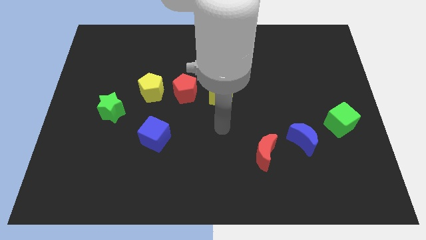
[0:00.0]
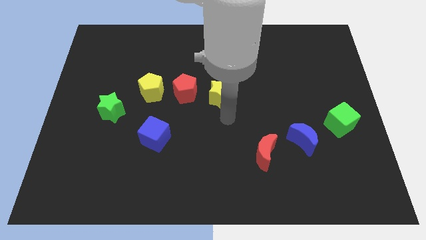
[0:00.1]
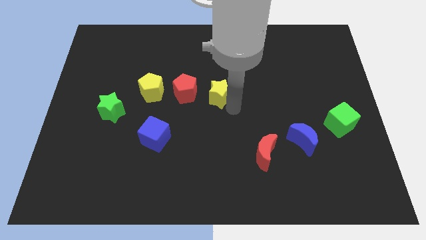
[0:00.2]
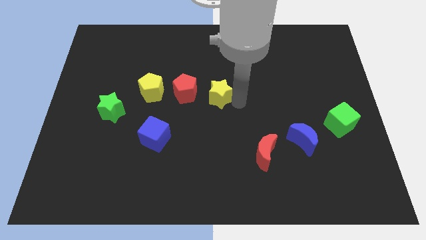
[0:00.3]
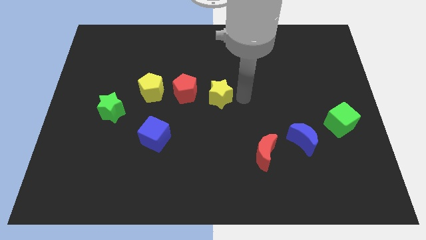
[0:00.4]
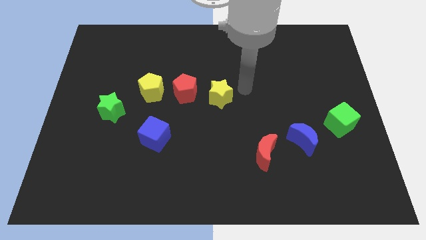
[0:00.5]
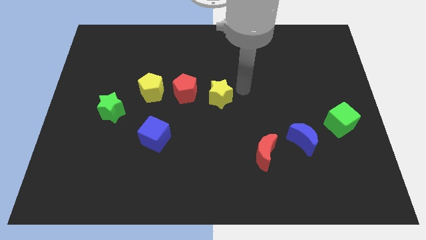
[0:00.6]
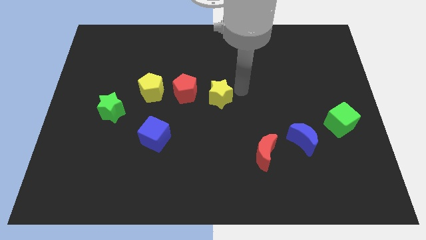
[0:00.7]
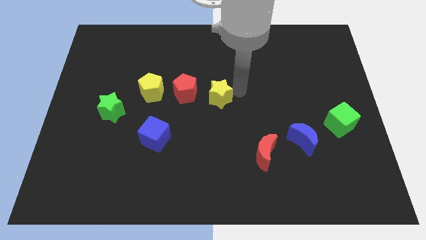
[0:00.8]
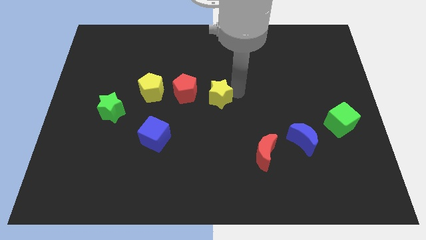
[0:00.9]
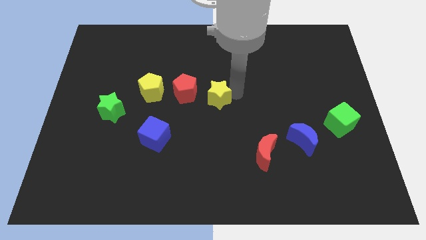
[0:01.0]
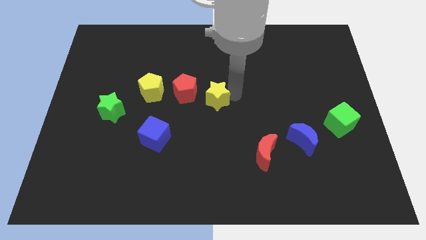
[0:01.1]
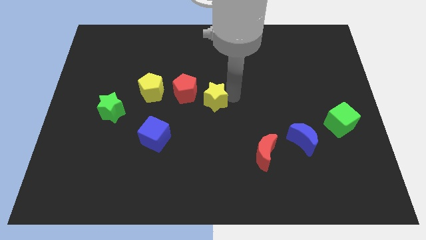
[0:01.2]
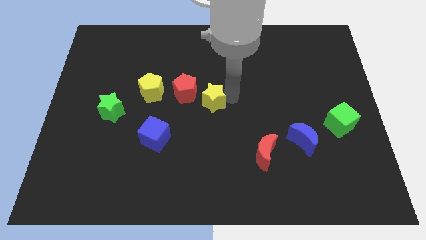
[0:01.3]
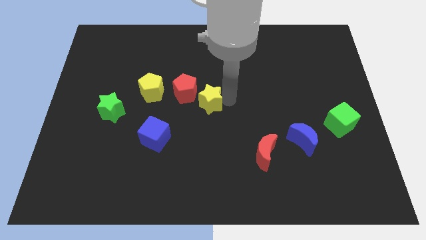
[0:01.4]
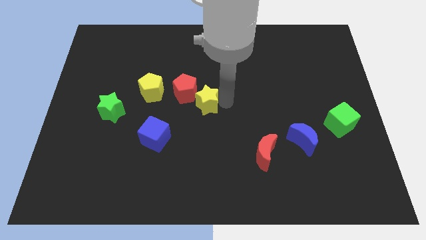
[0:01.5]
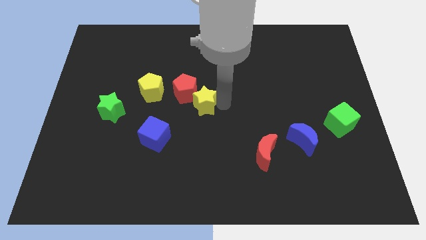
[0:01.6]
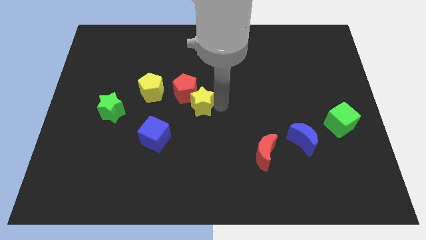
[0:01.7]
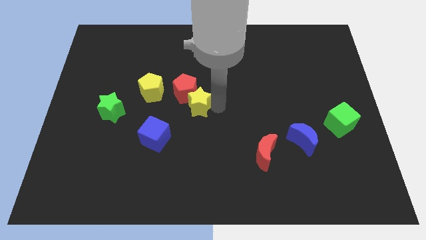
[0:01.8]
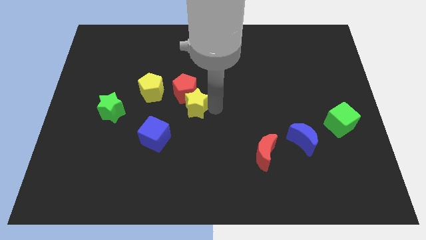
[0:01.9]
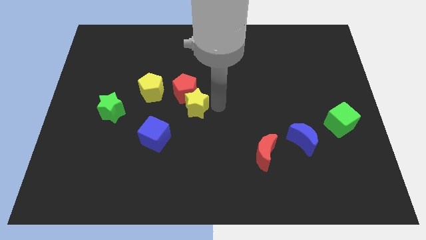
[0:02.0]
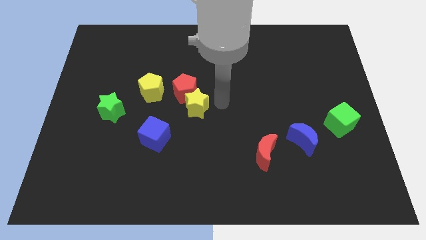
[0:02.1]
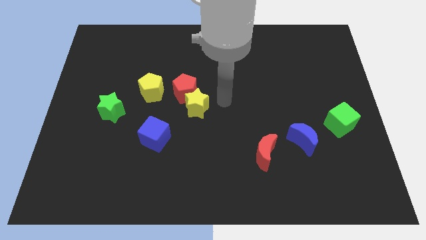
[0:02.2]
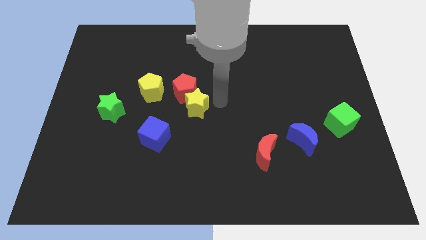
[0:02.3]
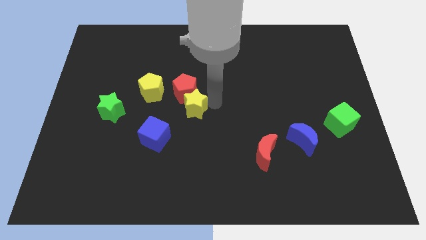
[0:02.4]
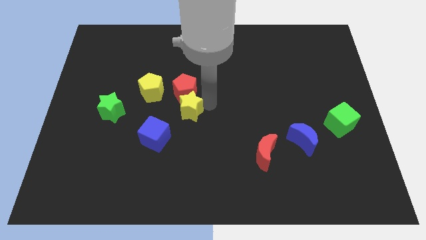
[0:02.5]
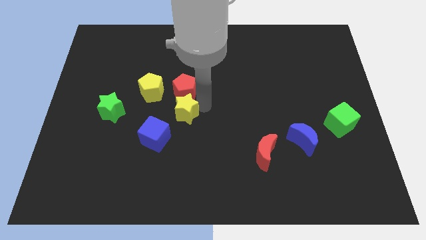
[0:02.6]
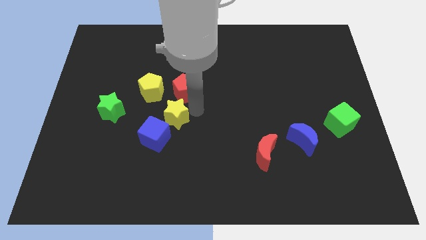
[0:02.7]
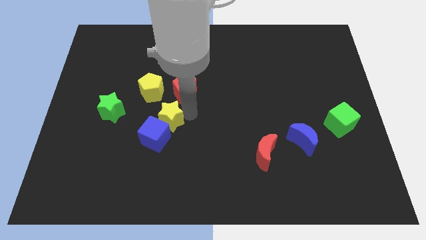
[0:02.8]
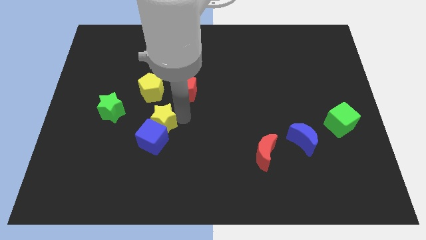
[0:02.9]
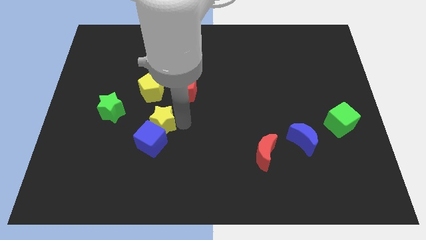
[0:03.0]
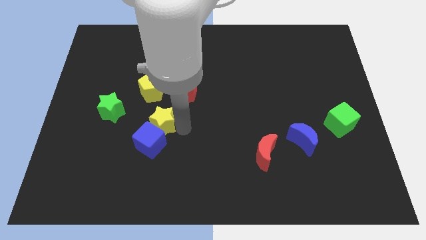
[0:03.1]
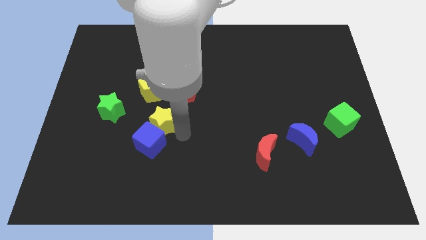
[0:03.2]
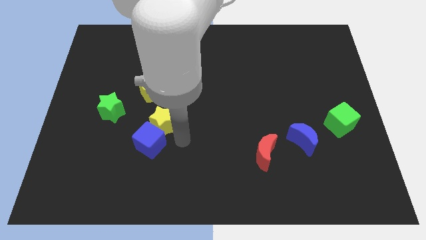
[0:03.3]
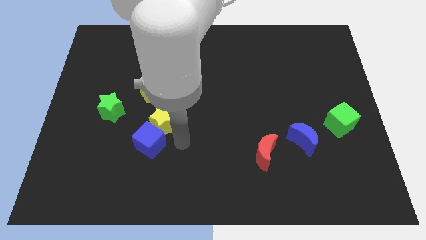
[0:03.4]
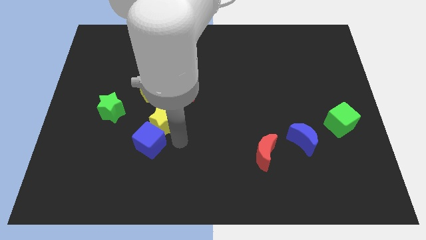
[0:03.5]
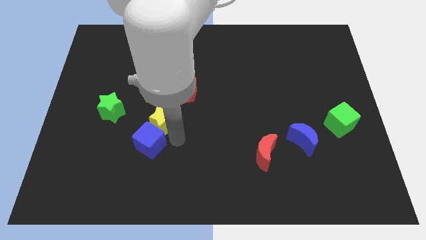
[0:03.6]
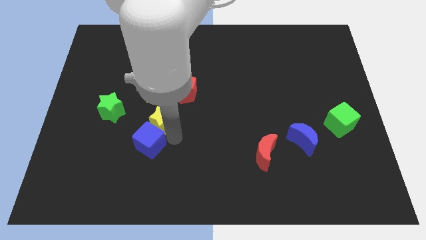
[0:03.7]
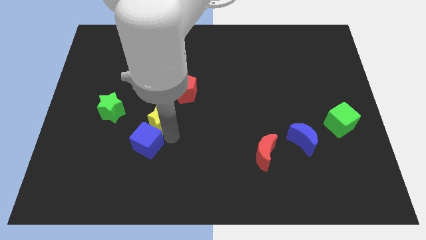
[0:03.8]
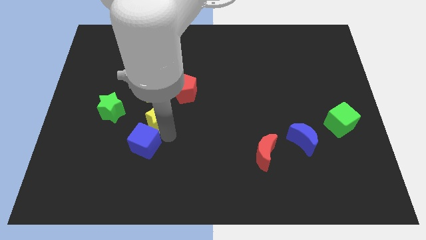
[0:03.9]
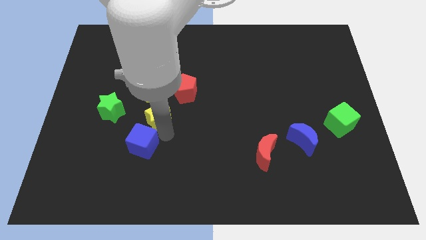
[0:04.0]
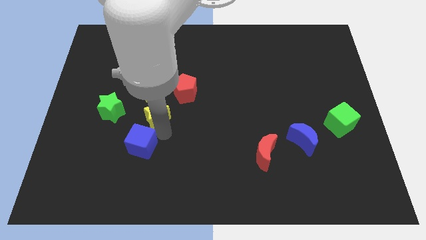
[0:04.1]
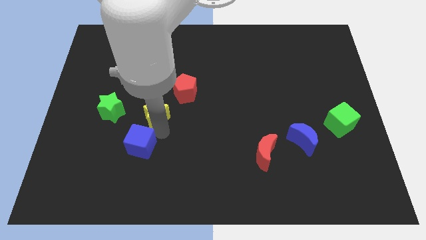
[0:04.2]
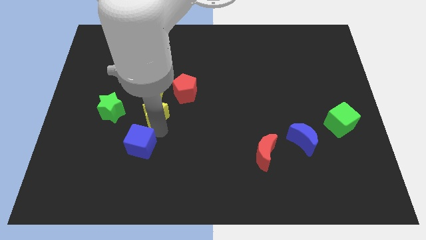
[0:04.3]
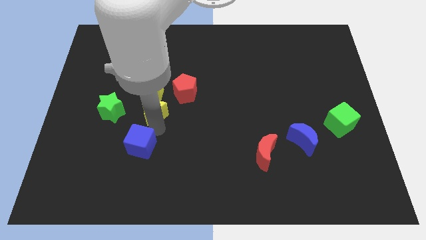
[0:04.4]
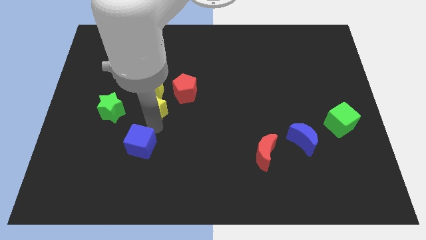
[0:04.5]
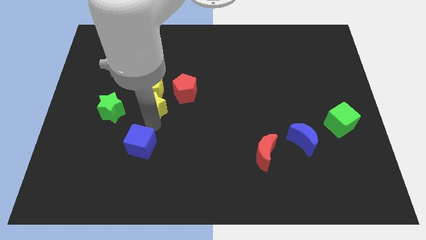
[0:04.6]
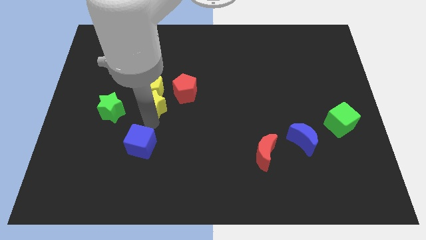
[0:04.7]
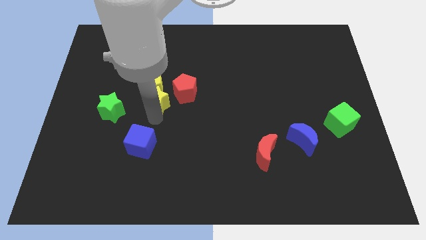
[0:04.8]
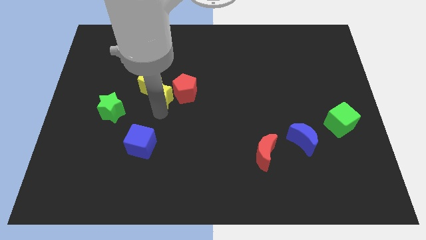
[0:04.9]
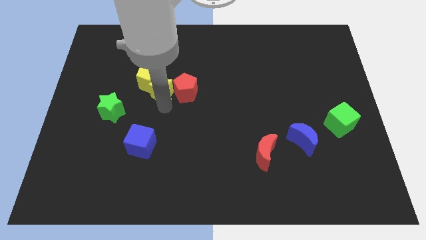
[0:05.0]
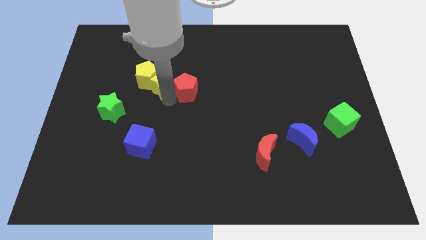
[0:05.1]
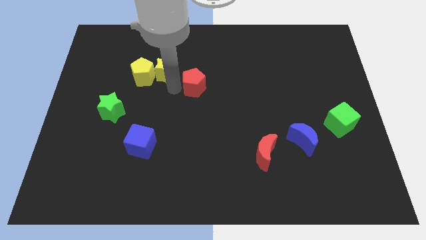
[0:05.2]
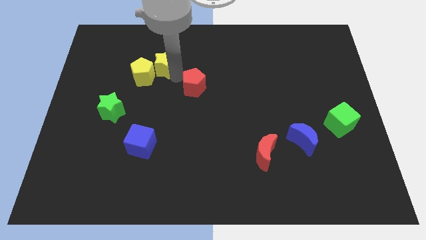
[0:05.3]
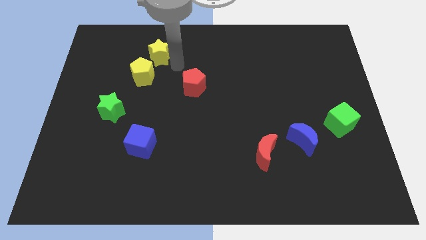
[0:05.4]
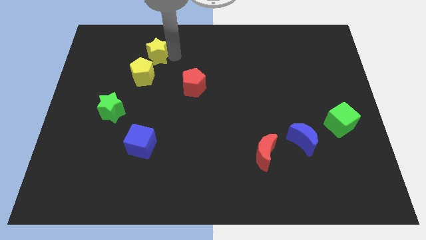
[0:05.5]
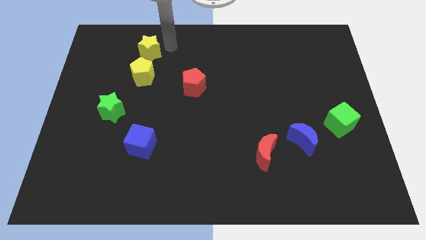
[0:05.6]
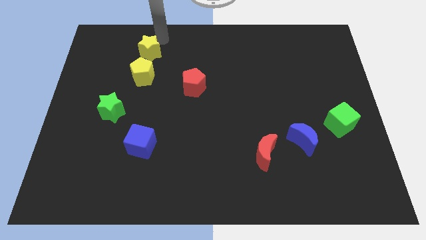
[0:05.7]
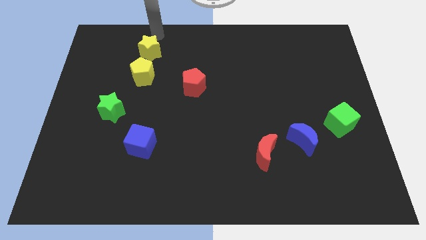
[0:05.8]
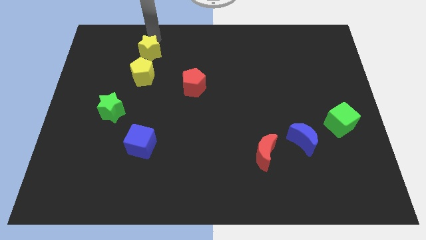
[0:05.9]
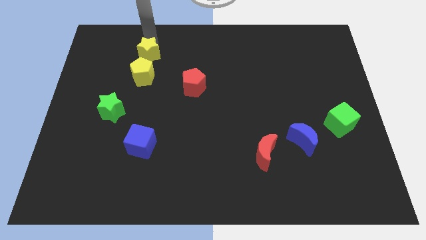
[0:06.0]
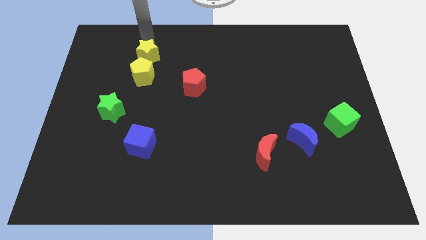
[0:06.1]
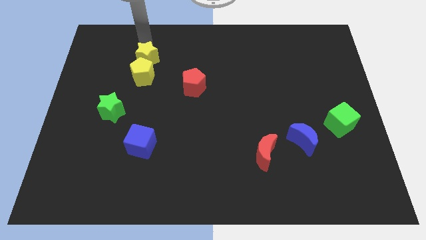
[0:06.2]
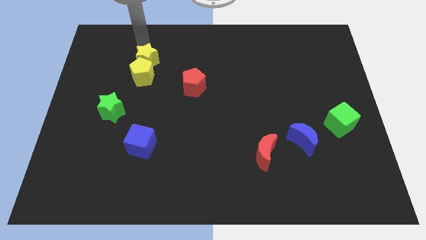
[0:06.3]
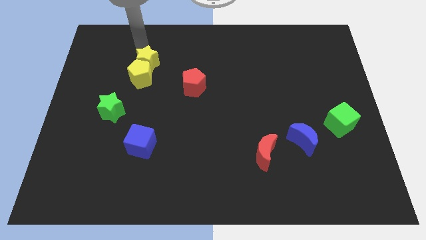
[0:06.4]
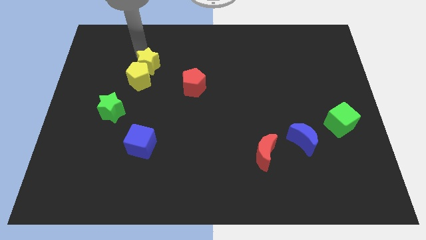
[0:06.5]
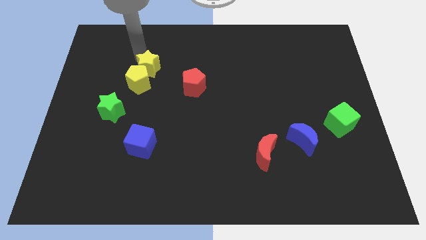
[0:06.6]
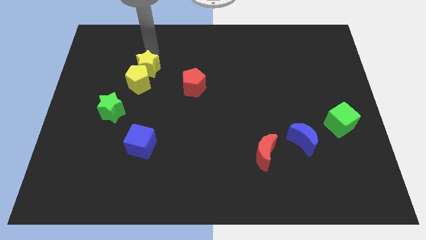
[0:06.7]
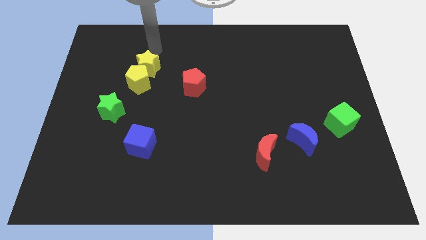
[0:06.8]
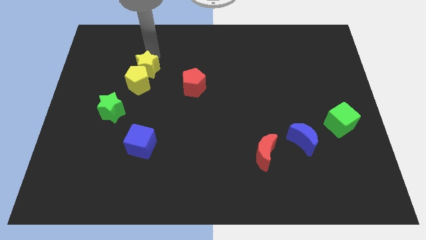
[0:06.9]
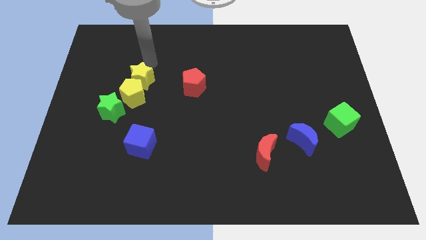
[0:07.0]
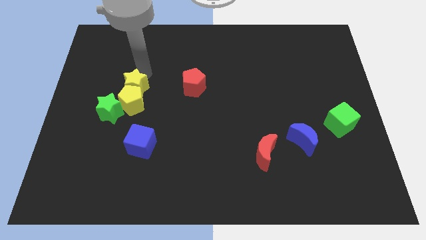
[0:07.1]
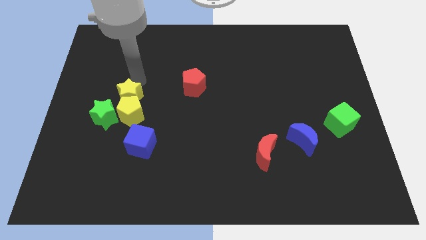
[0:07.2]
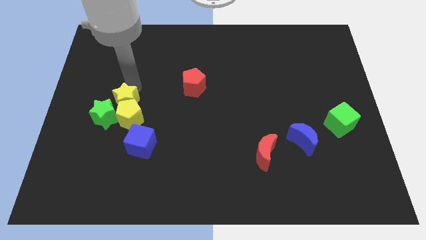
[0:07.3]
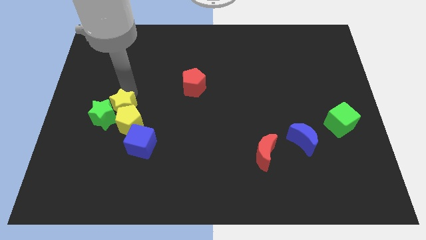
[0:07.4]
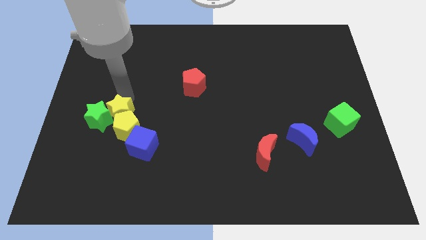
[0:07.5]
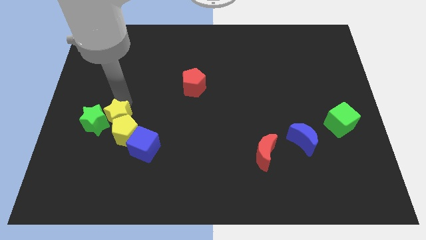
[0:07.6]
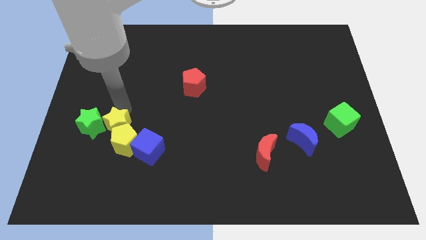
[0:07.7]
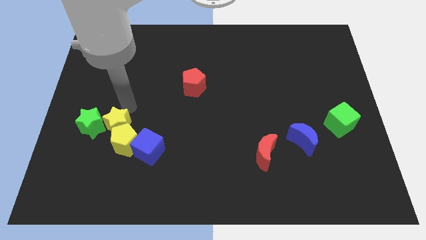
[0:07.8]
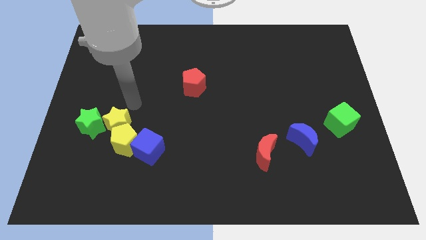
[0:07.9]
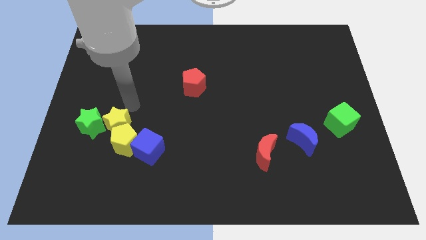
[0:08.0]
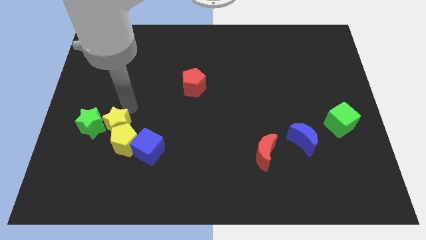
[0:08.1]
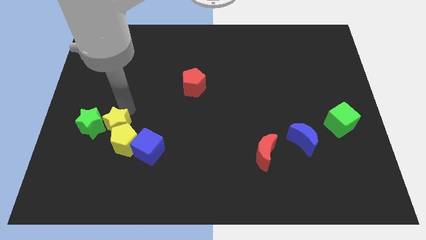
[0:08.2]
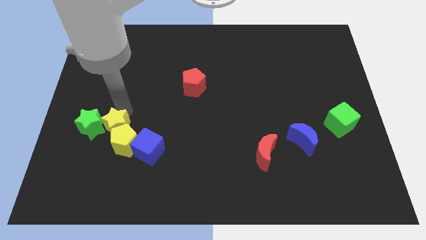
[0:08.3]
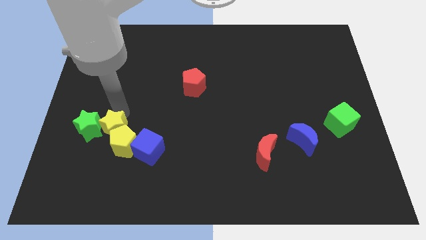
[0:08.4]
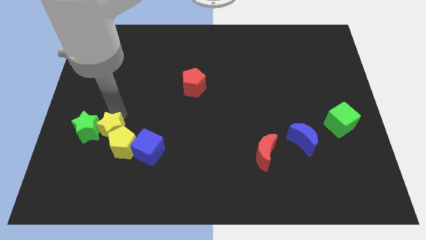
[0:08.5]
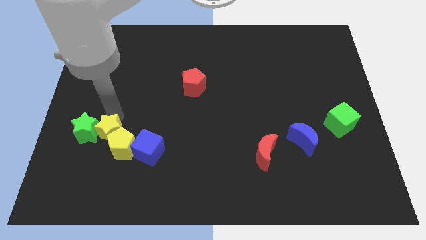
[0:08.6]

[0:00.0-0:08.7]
push the yellow star just left of the blue cube
